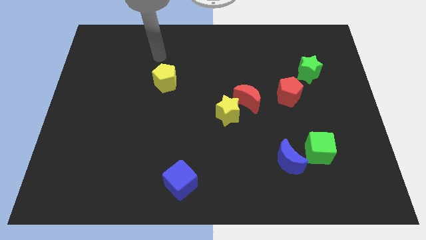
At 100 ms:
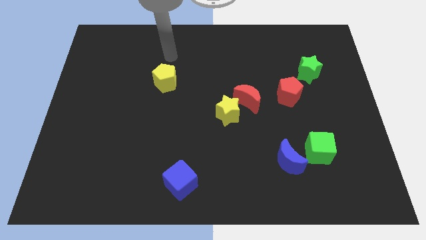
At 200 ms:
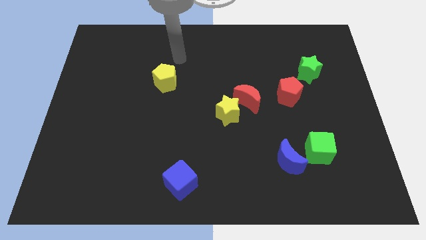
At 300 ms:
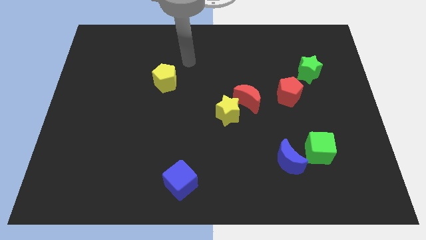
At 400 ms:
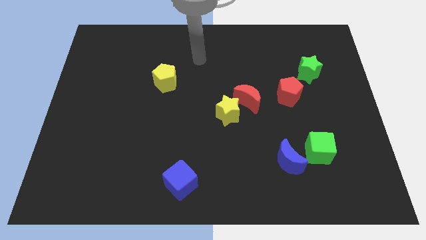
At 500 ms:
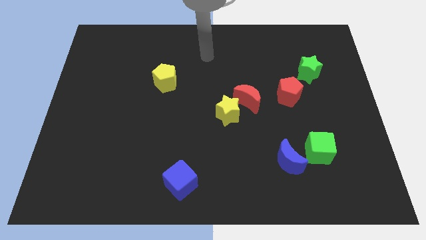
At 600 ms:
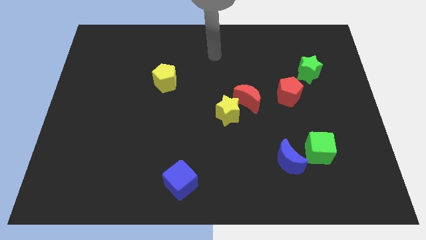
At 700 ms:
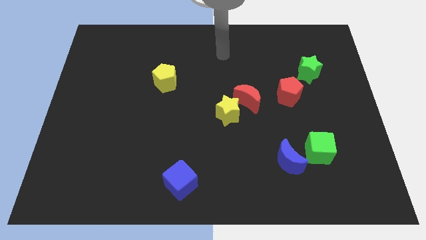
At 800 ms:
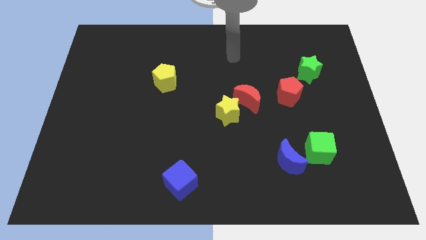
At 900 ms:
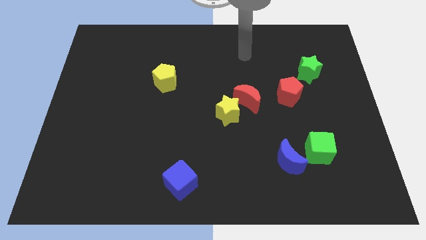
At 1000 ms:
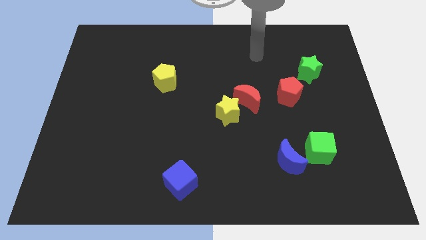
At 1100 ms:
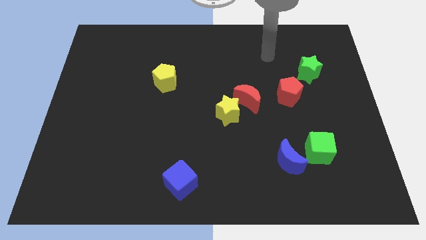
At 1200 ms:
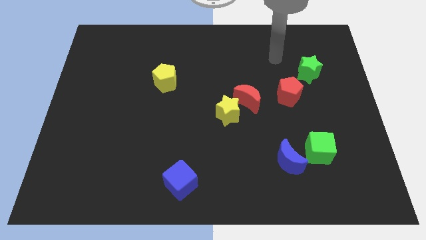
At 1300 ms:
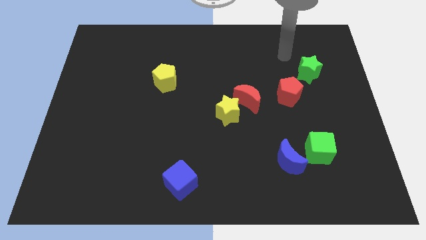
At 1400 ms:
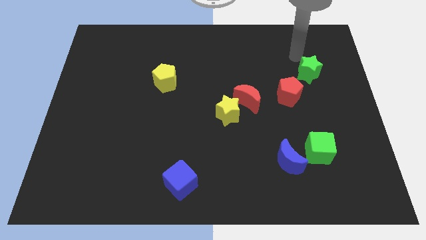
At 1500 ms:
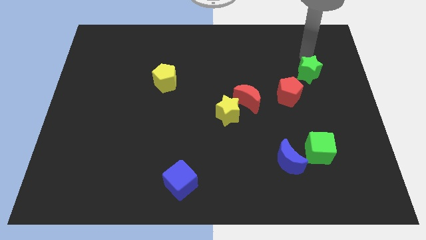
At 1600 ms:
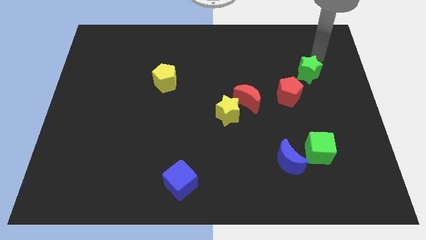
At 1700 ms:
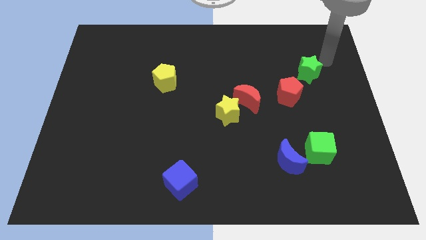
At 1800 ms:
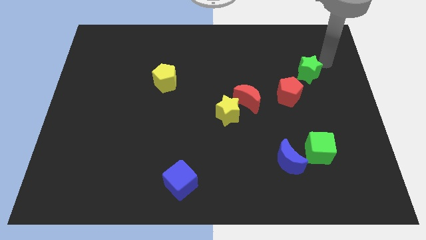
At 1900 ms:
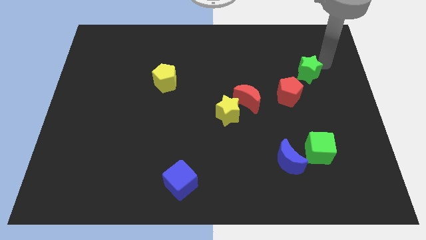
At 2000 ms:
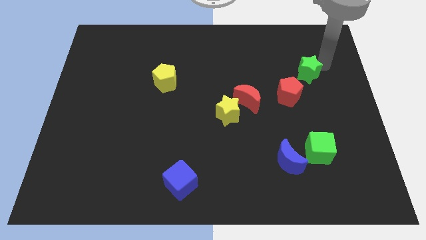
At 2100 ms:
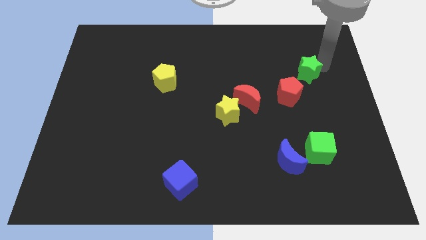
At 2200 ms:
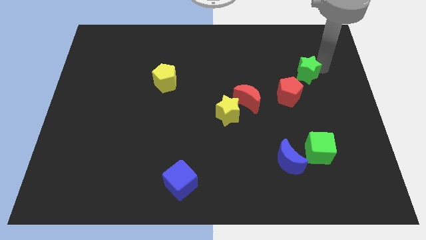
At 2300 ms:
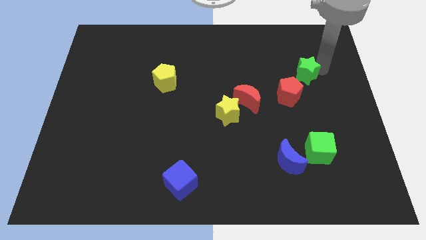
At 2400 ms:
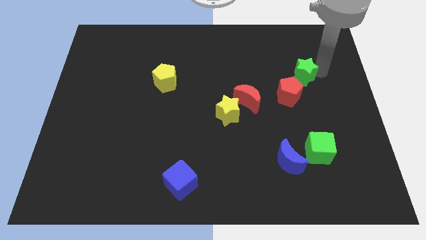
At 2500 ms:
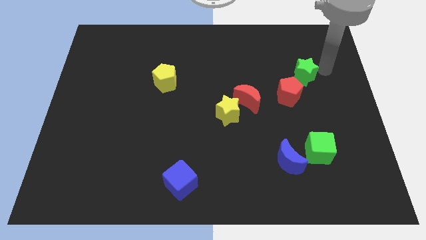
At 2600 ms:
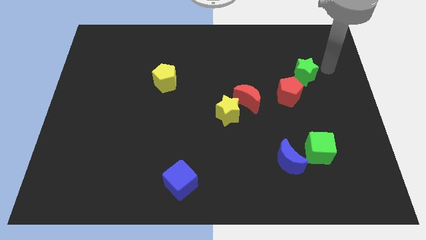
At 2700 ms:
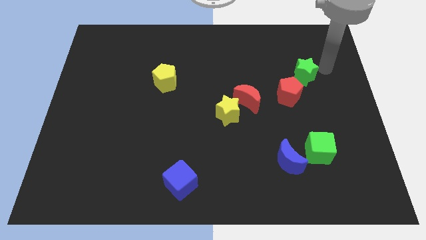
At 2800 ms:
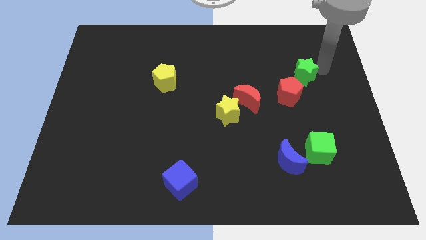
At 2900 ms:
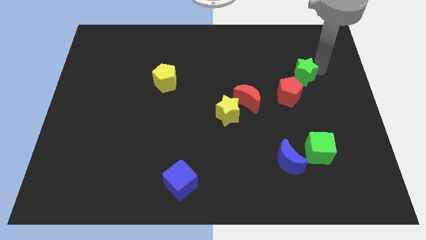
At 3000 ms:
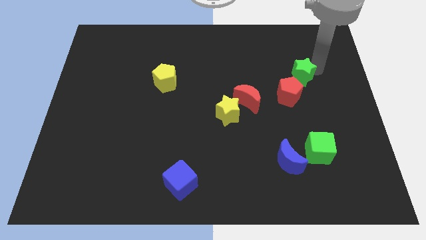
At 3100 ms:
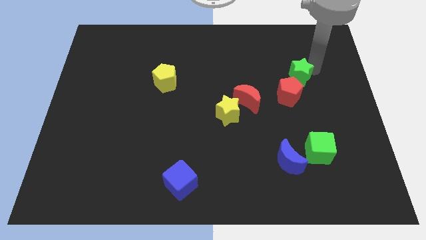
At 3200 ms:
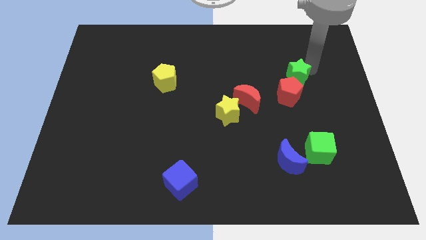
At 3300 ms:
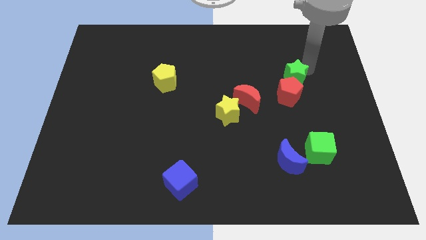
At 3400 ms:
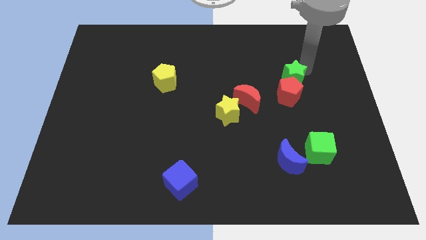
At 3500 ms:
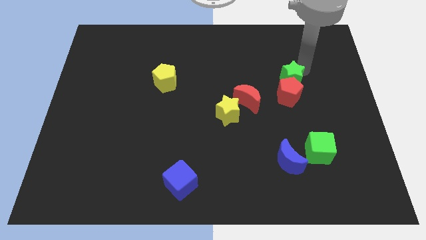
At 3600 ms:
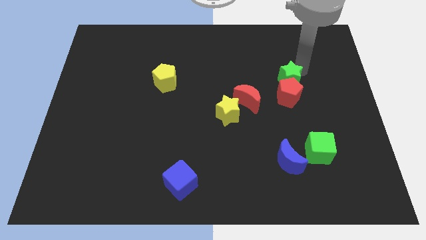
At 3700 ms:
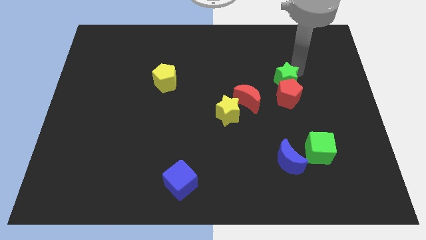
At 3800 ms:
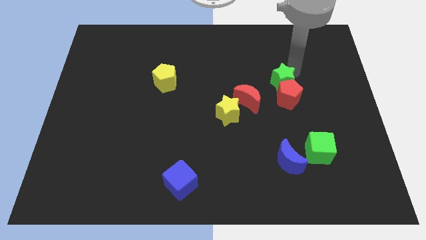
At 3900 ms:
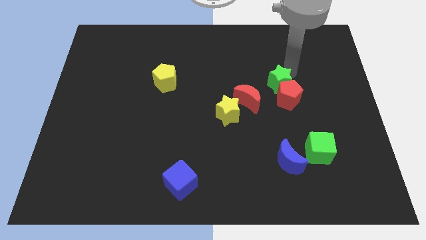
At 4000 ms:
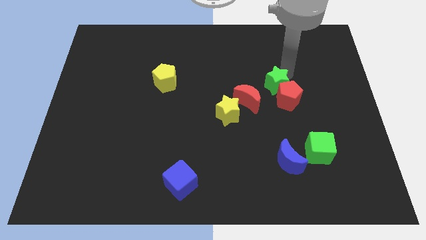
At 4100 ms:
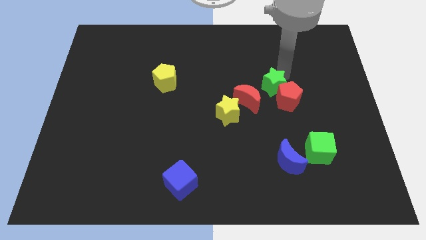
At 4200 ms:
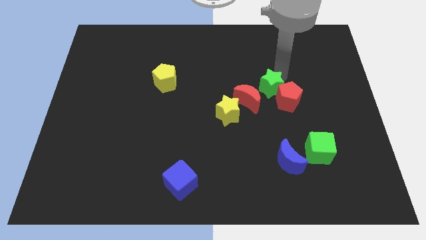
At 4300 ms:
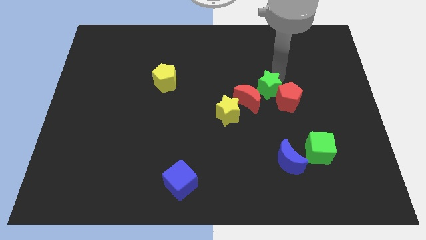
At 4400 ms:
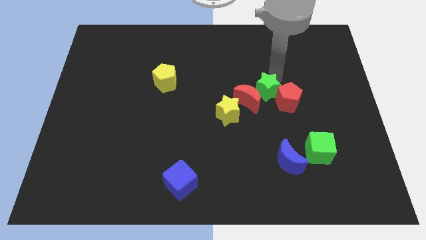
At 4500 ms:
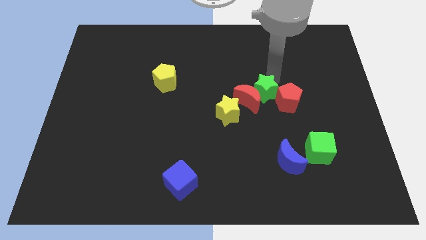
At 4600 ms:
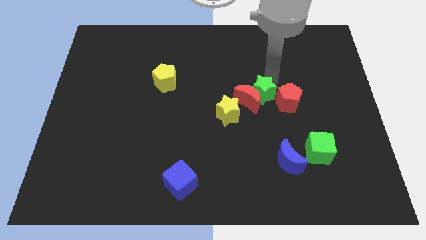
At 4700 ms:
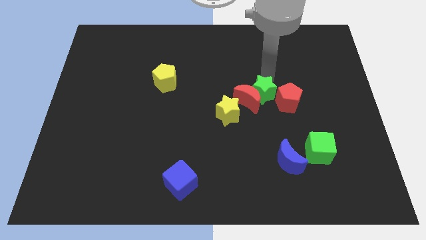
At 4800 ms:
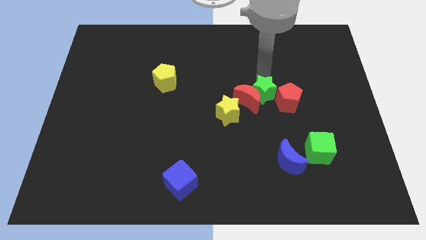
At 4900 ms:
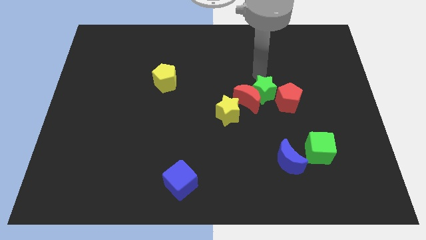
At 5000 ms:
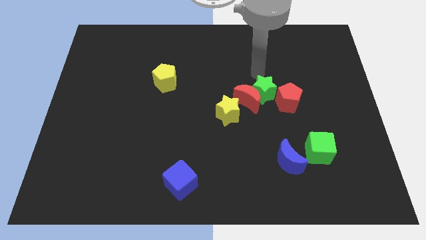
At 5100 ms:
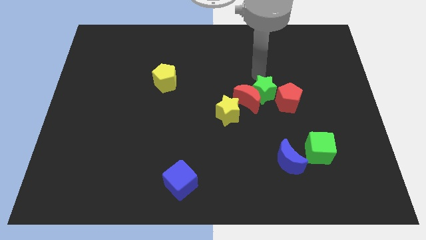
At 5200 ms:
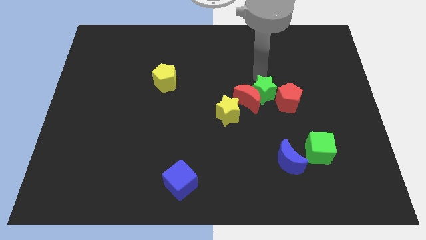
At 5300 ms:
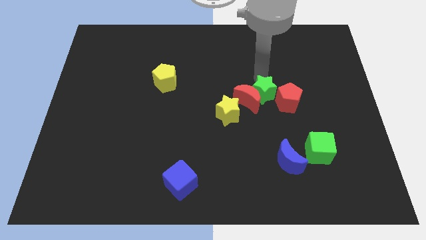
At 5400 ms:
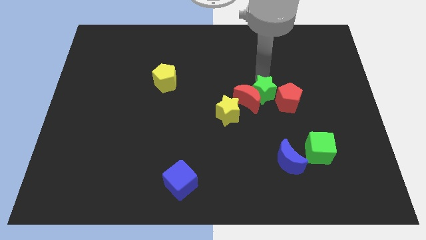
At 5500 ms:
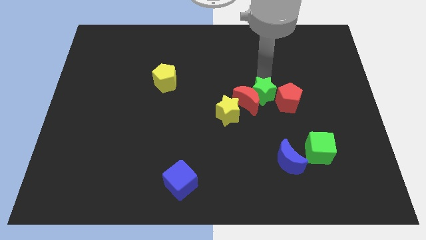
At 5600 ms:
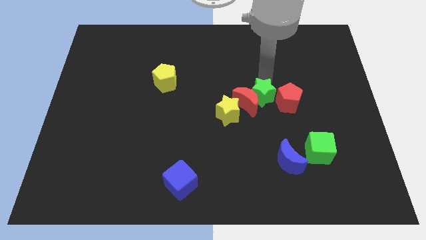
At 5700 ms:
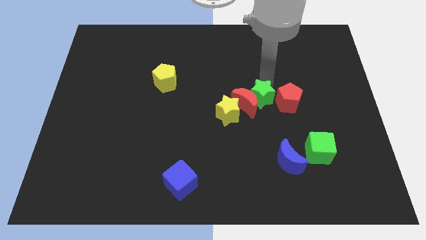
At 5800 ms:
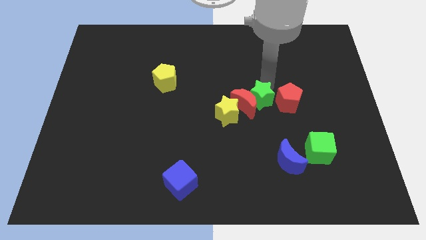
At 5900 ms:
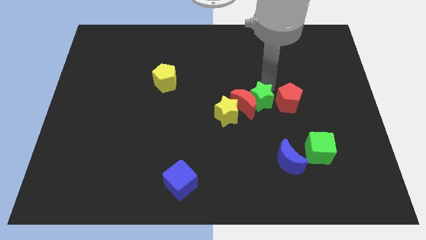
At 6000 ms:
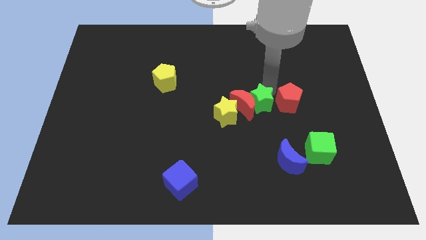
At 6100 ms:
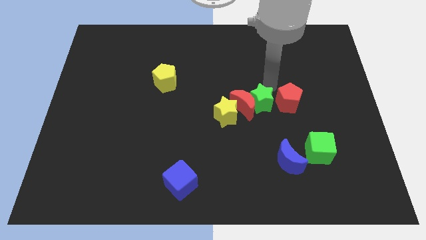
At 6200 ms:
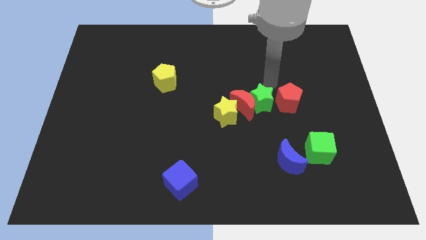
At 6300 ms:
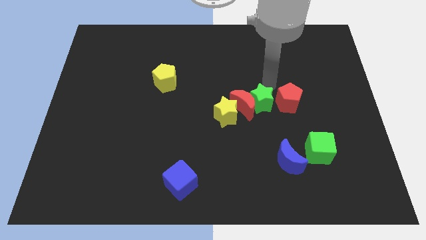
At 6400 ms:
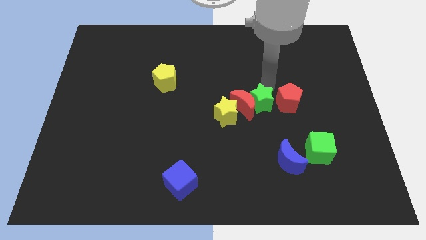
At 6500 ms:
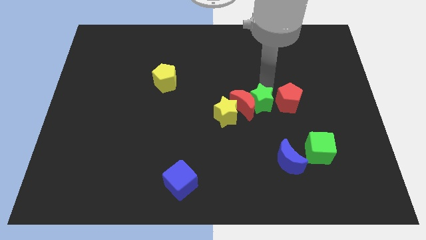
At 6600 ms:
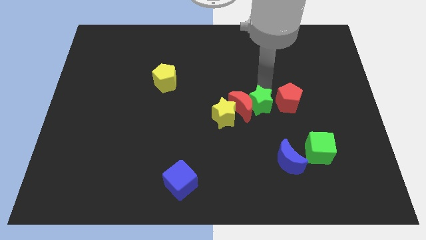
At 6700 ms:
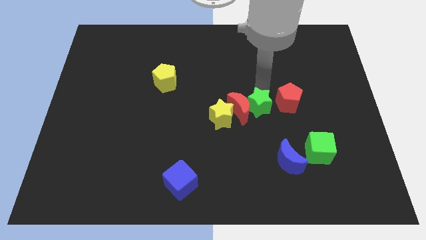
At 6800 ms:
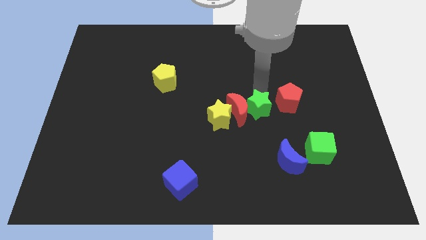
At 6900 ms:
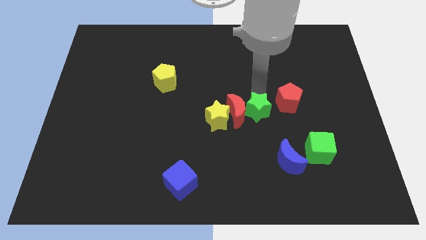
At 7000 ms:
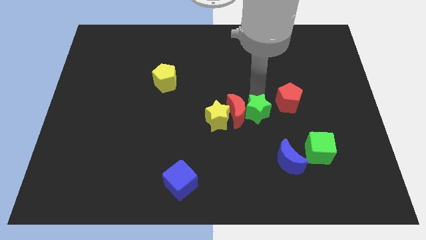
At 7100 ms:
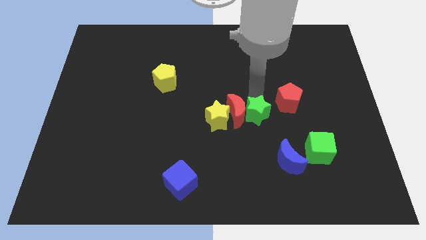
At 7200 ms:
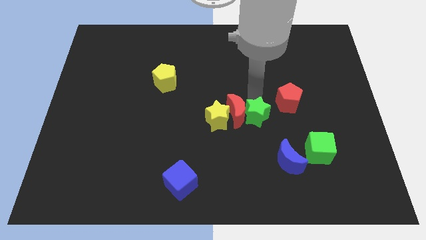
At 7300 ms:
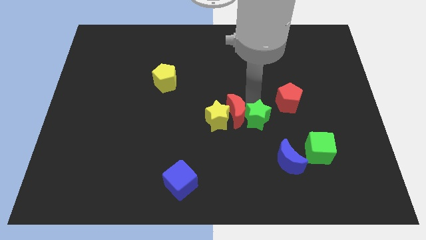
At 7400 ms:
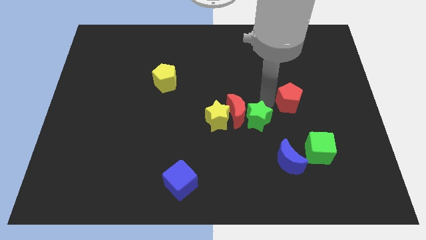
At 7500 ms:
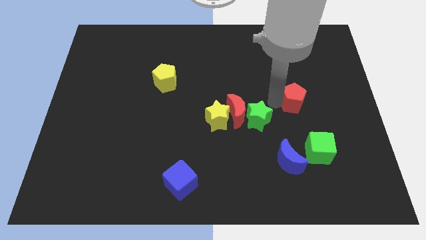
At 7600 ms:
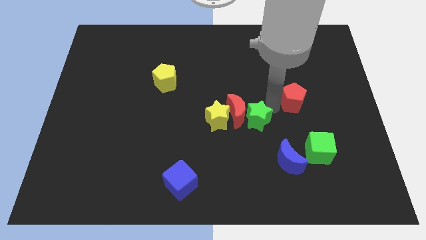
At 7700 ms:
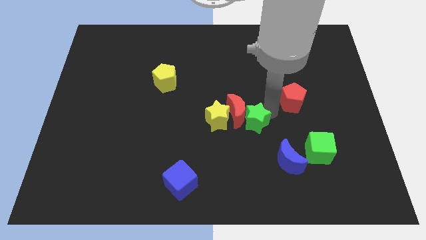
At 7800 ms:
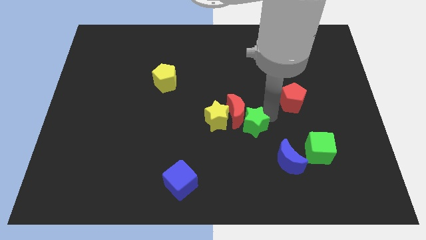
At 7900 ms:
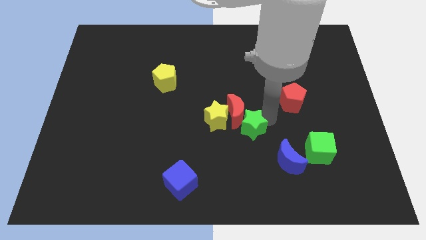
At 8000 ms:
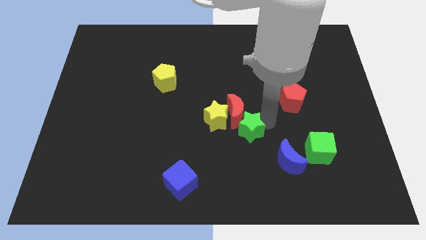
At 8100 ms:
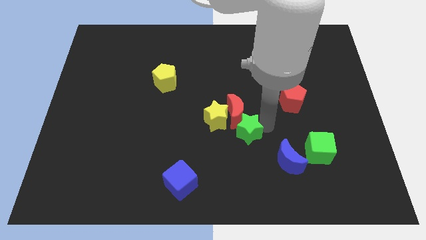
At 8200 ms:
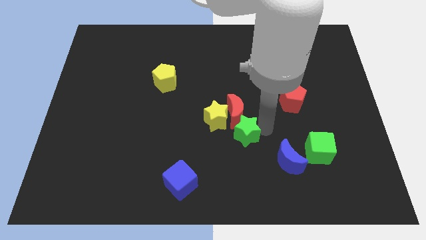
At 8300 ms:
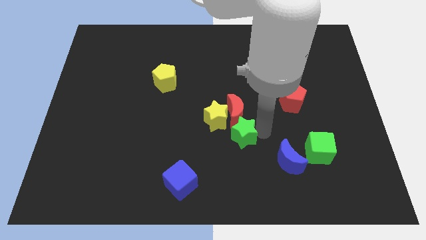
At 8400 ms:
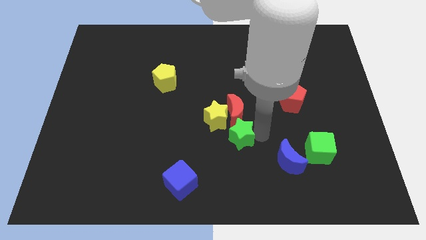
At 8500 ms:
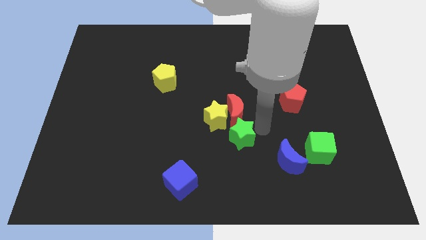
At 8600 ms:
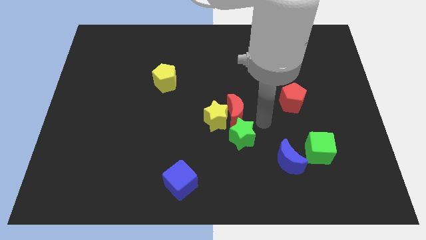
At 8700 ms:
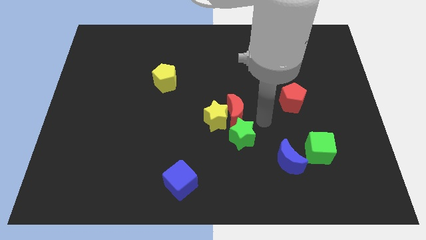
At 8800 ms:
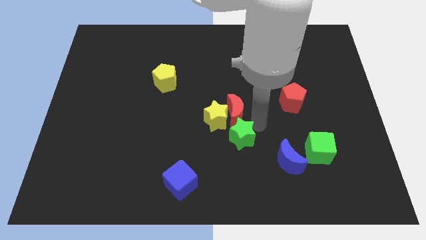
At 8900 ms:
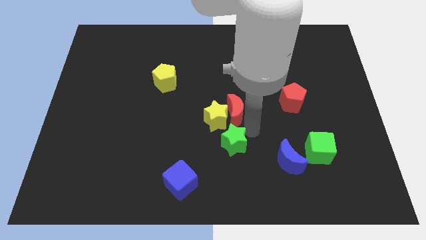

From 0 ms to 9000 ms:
slide the green star to the bottom of the yellow star
